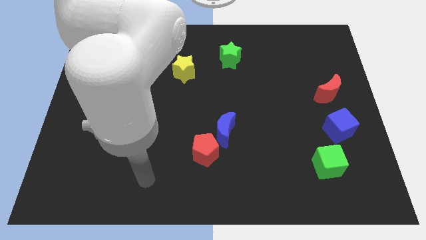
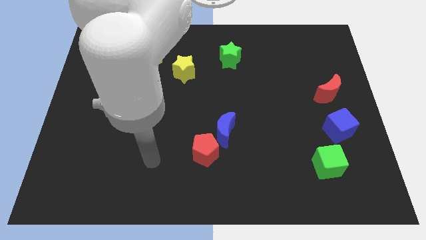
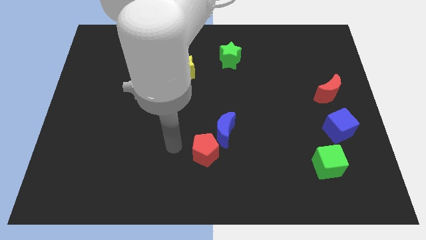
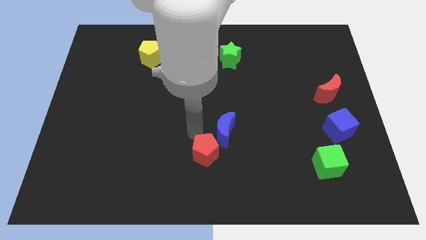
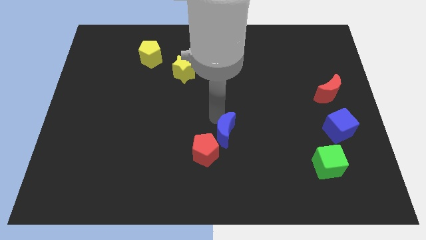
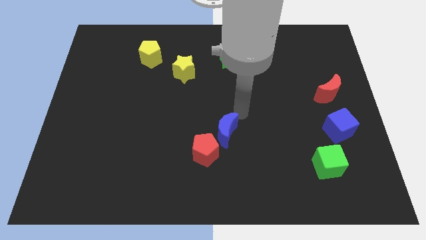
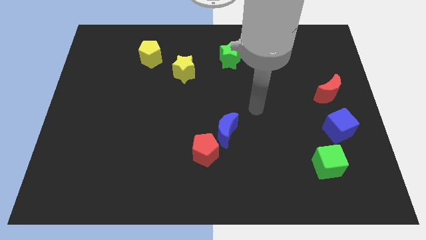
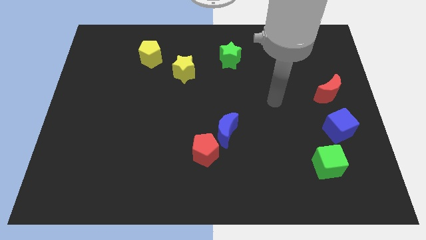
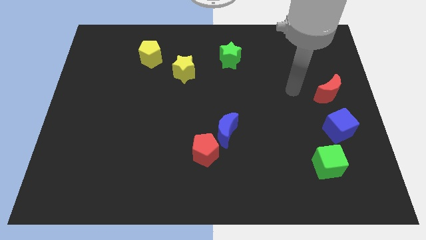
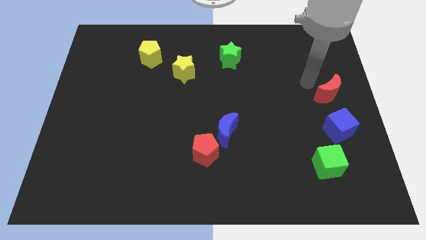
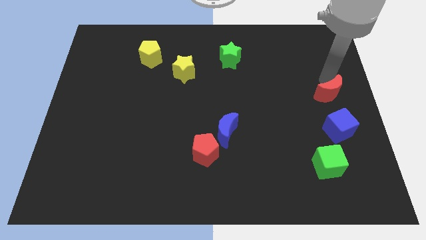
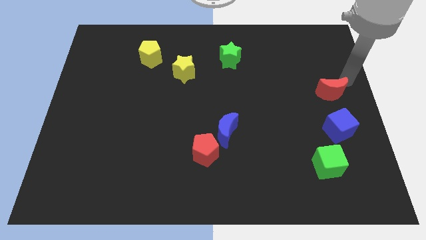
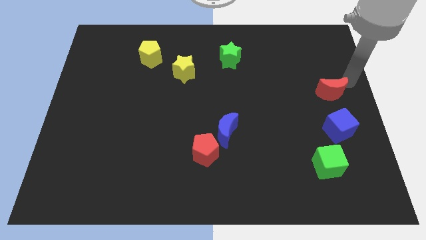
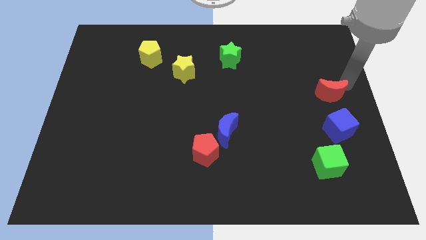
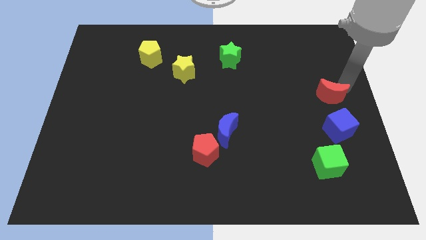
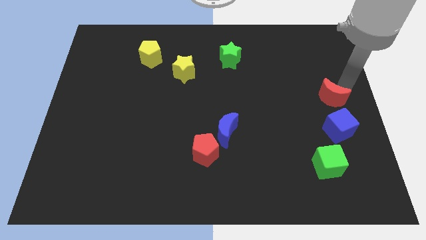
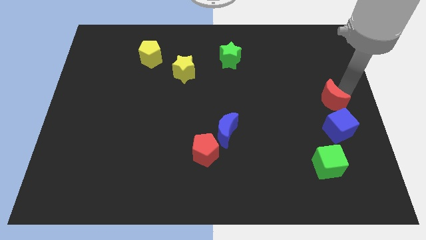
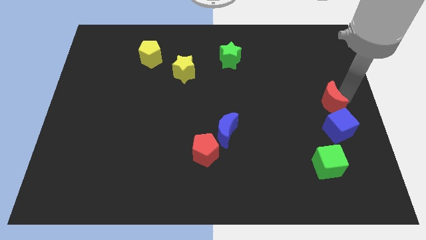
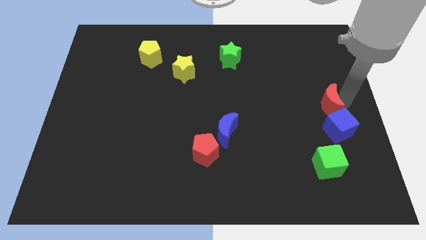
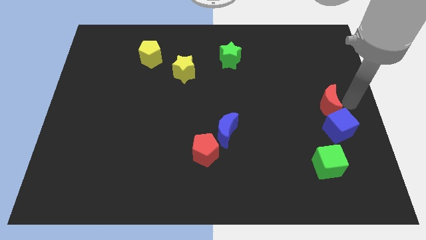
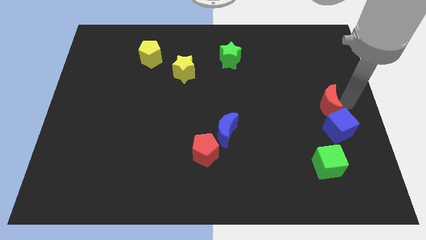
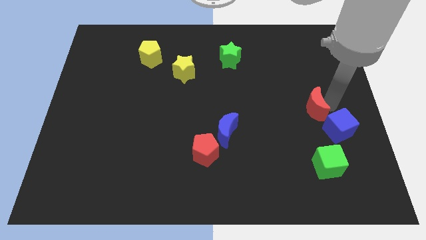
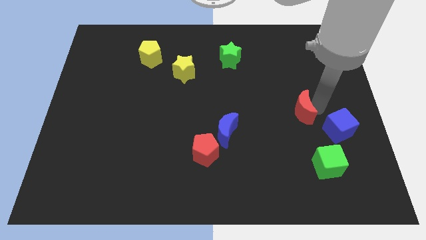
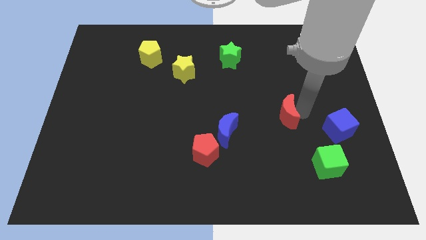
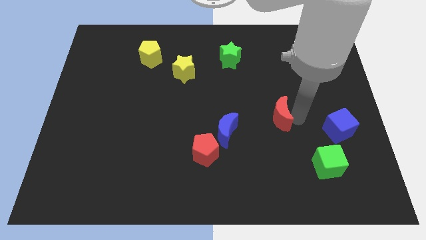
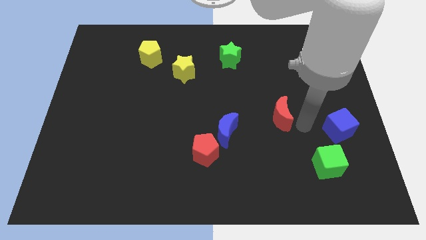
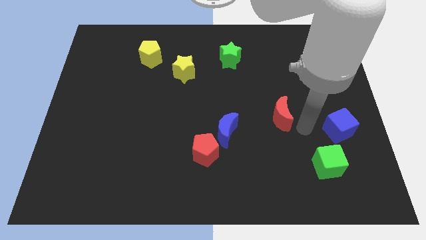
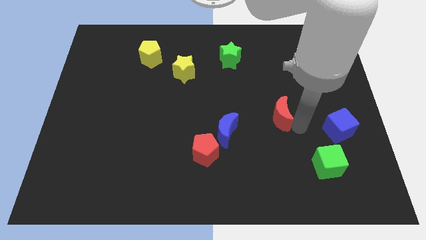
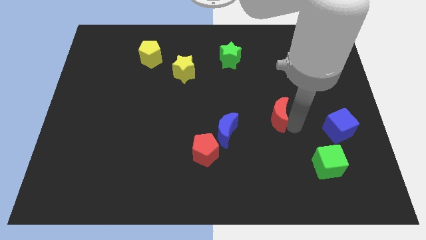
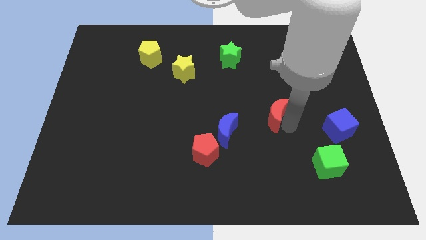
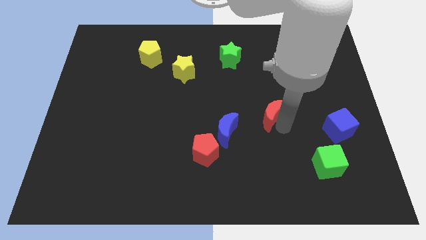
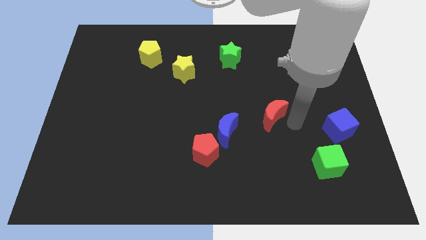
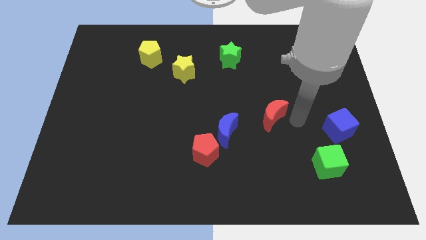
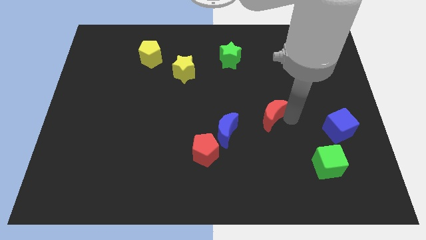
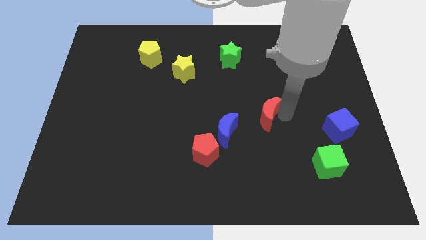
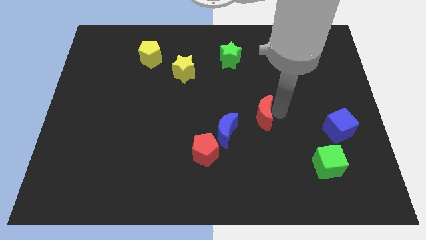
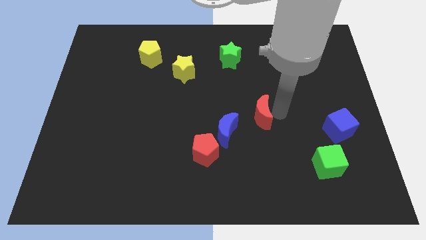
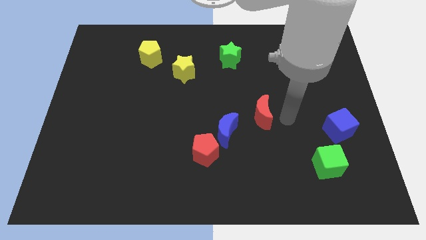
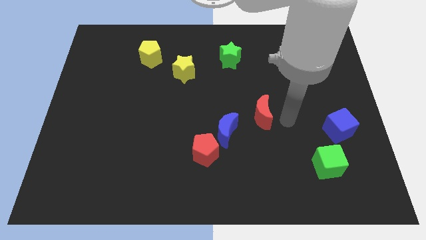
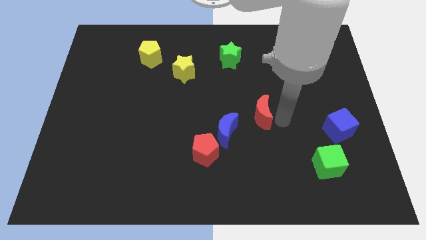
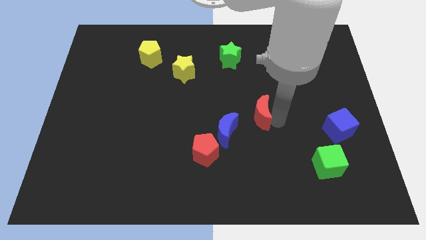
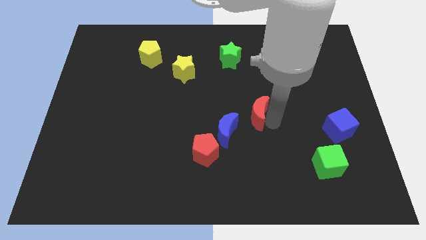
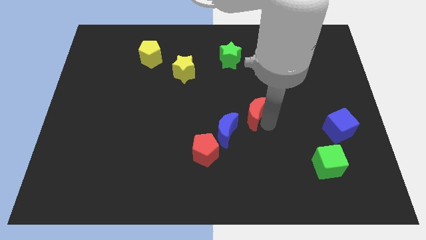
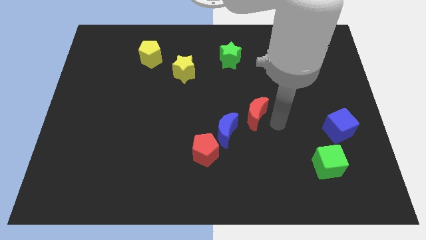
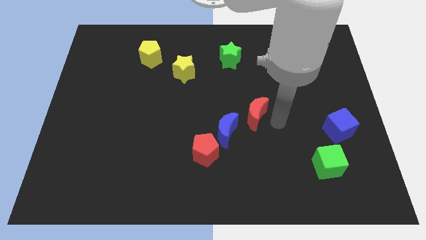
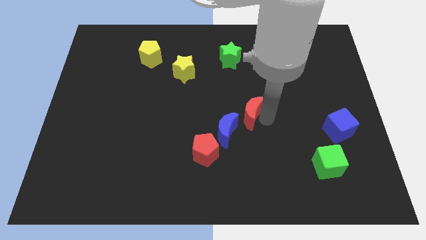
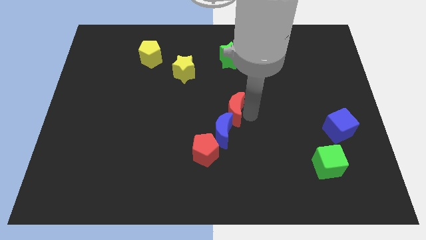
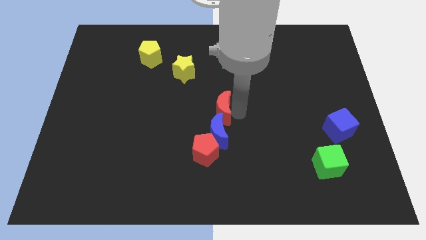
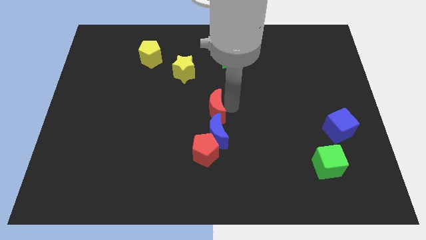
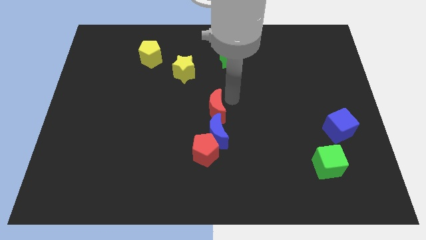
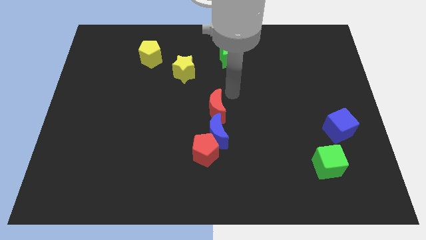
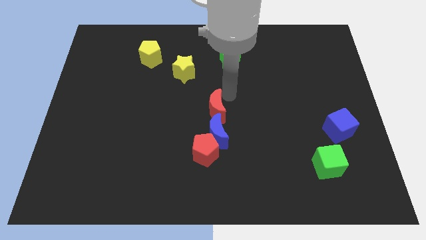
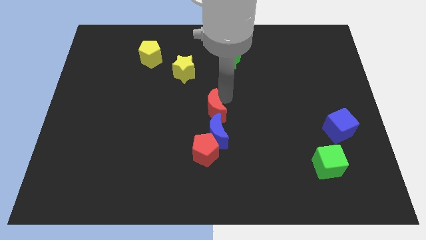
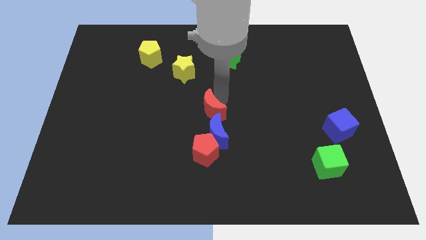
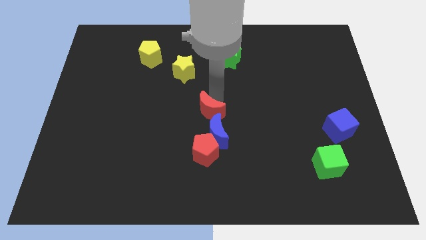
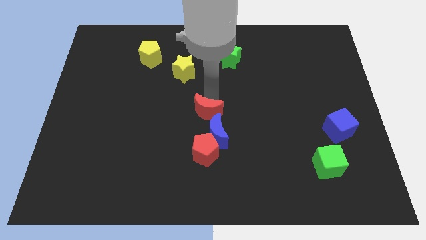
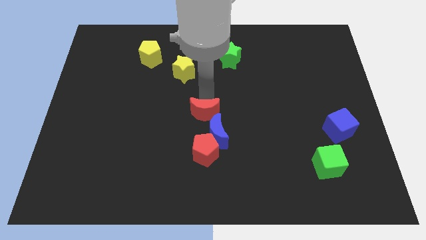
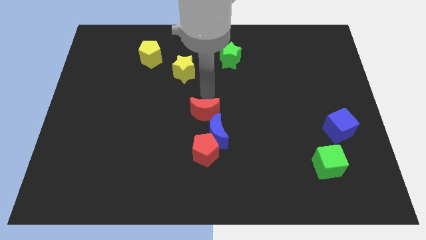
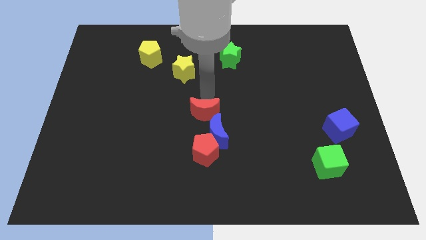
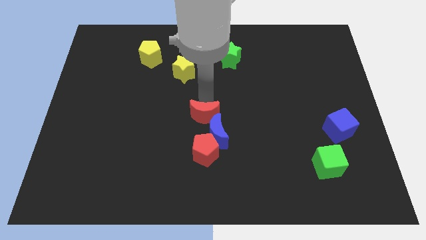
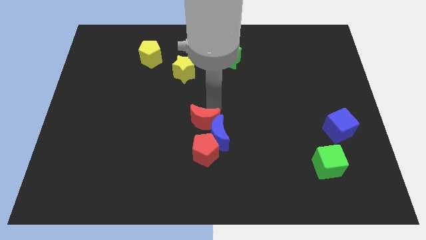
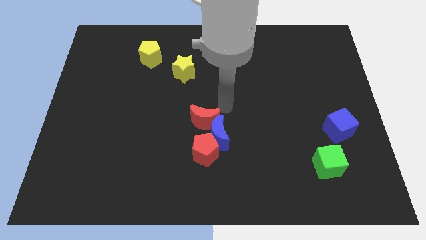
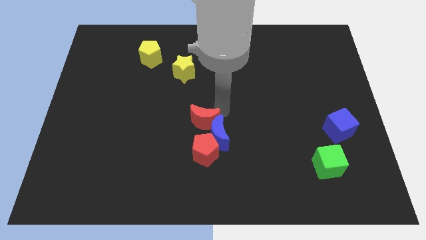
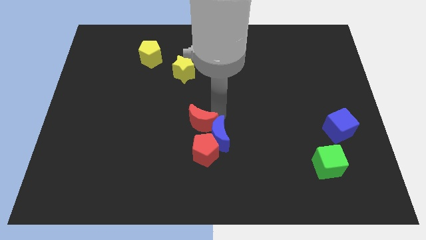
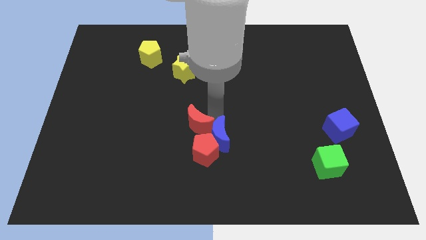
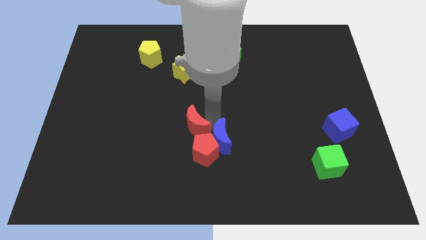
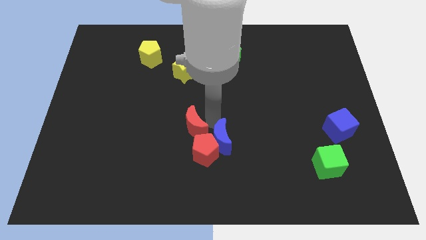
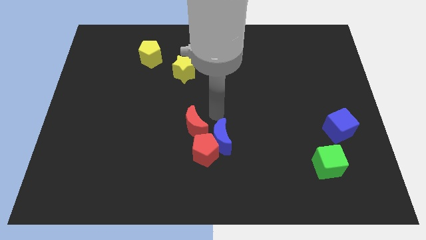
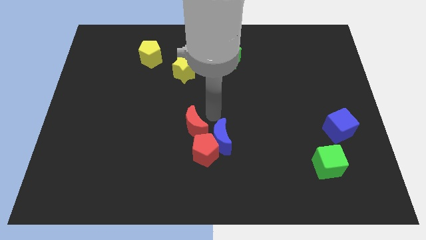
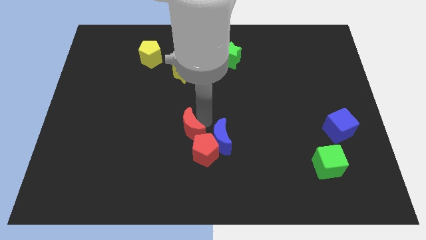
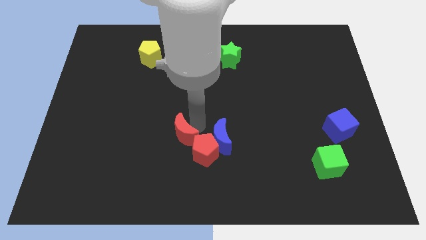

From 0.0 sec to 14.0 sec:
move the red moon left of the red pentagon

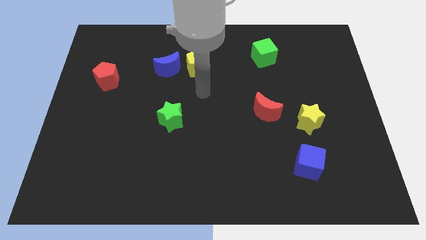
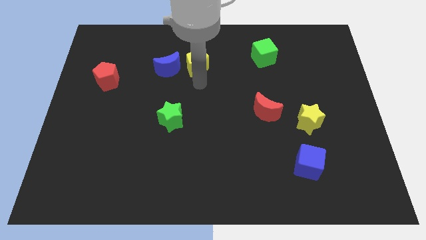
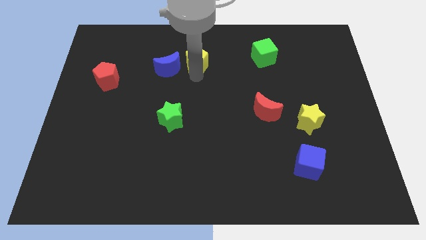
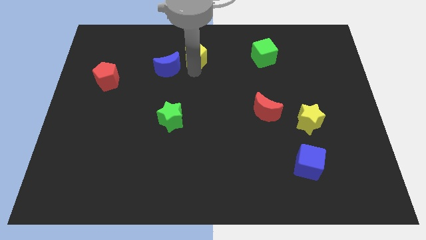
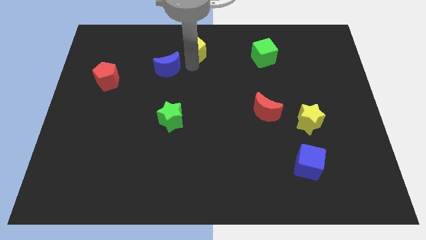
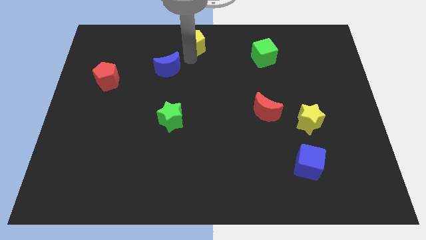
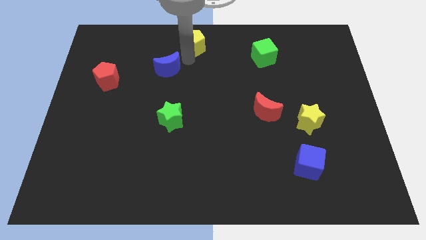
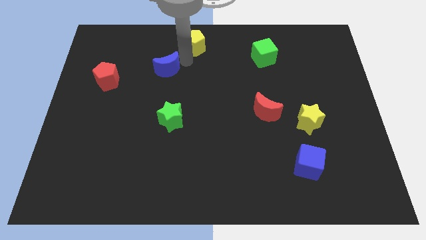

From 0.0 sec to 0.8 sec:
push the blue moon right of the red pentagon
